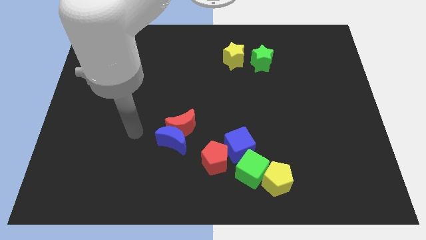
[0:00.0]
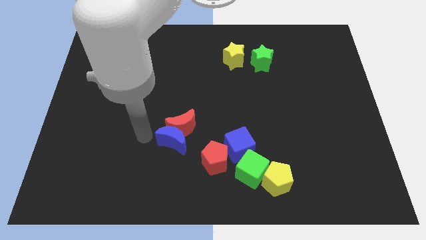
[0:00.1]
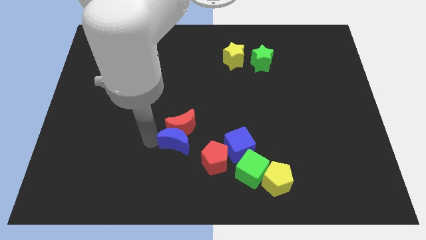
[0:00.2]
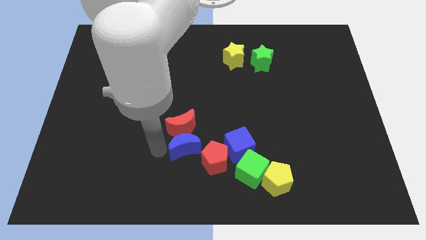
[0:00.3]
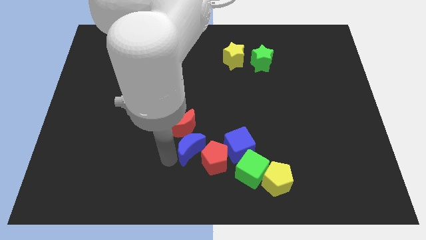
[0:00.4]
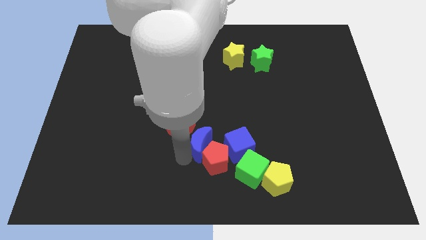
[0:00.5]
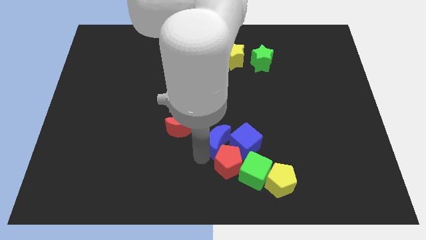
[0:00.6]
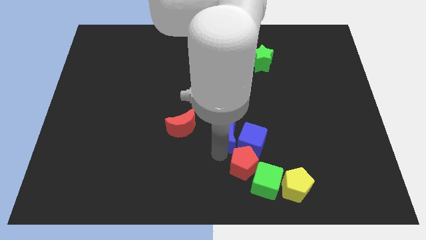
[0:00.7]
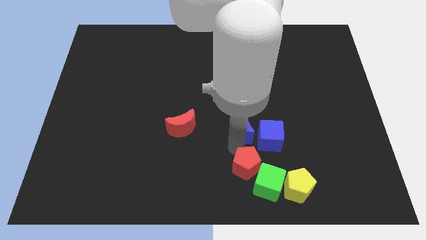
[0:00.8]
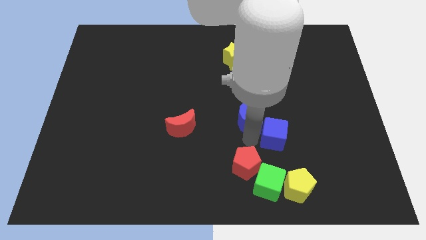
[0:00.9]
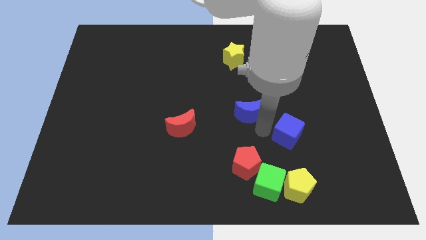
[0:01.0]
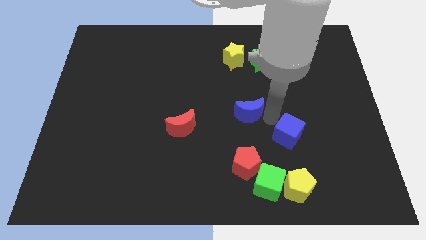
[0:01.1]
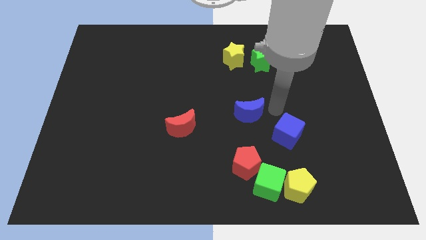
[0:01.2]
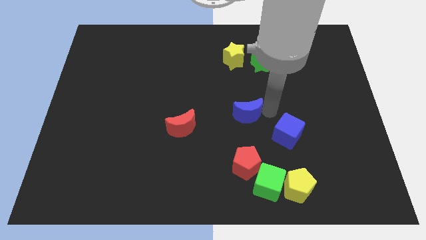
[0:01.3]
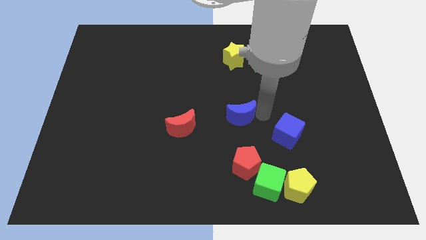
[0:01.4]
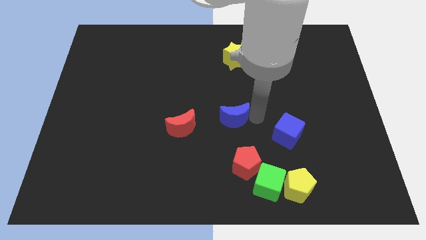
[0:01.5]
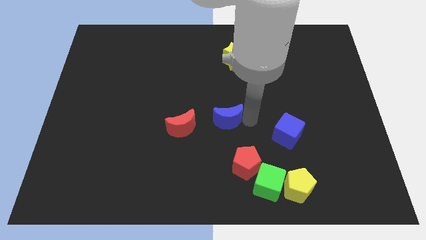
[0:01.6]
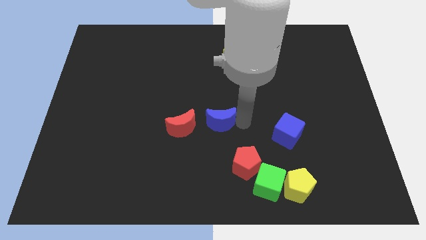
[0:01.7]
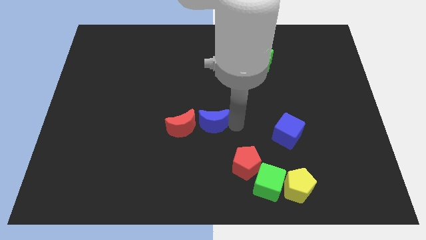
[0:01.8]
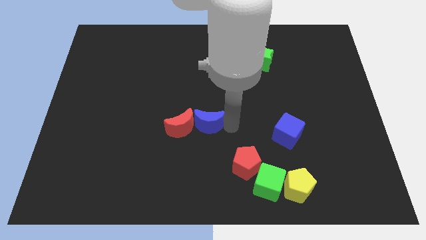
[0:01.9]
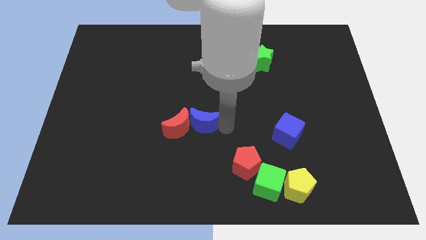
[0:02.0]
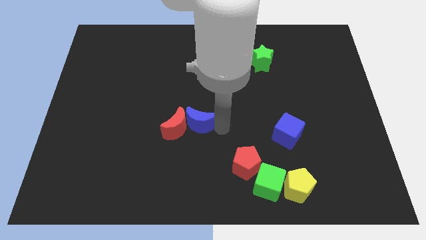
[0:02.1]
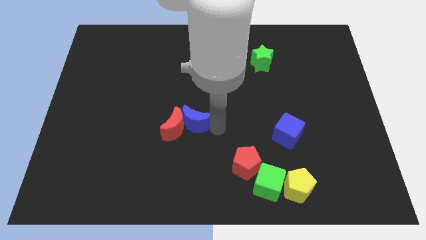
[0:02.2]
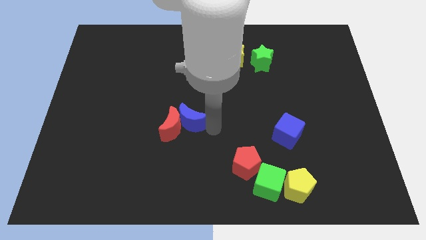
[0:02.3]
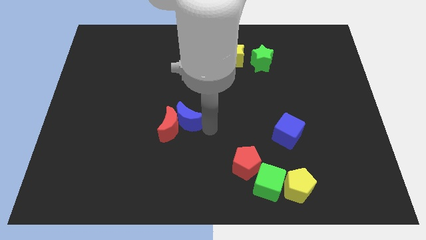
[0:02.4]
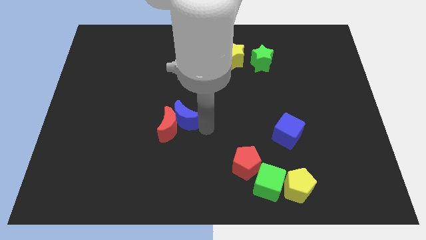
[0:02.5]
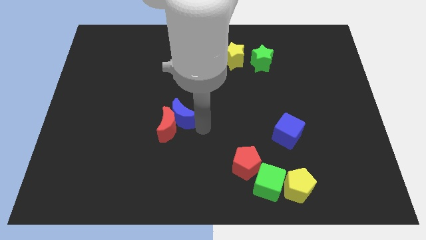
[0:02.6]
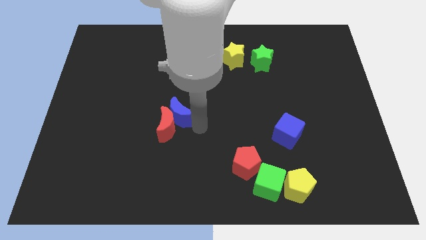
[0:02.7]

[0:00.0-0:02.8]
move the blue moon a little bit up

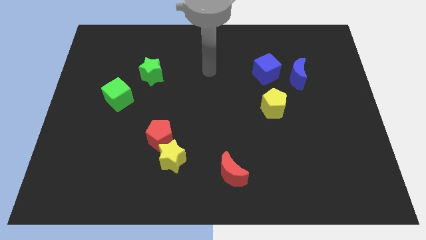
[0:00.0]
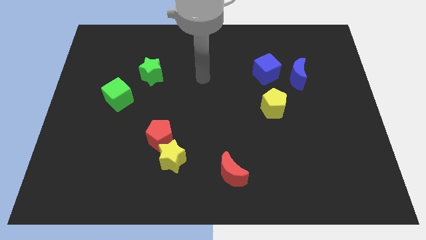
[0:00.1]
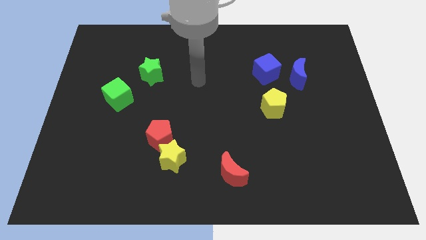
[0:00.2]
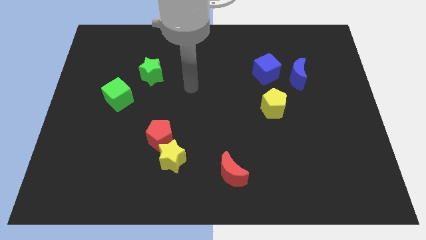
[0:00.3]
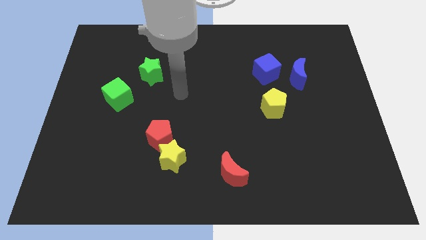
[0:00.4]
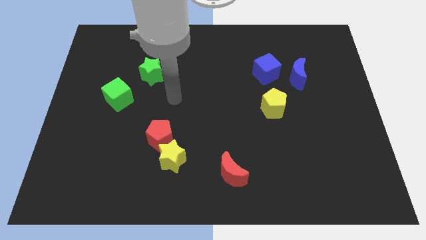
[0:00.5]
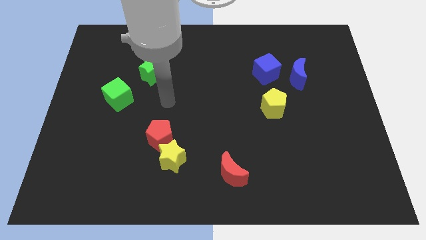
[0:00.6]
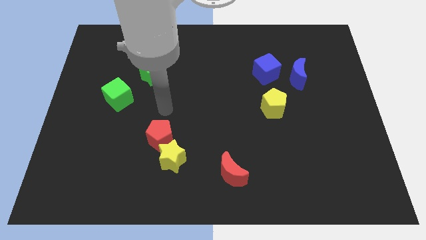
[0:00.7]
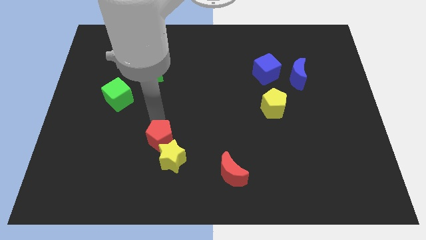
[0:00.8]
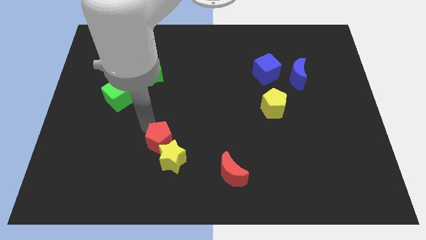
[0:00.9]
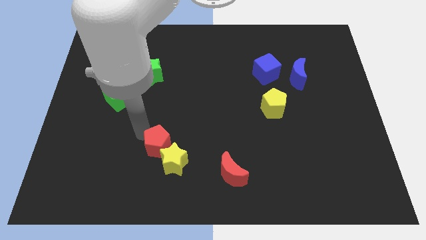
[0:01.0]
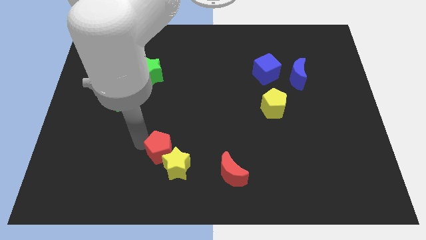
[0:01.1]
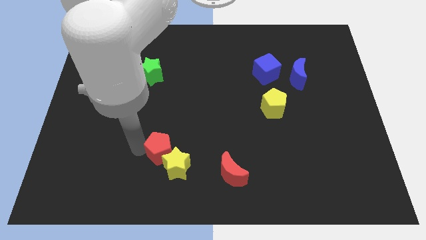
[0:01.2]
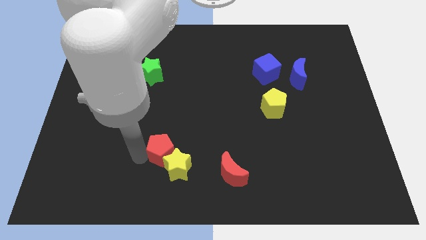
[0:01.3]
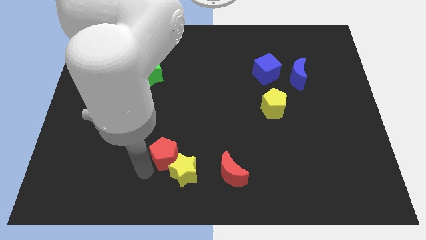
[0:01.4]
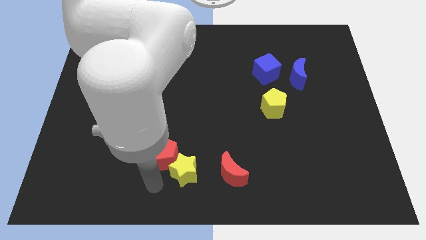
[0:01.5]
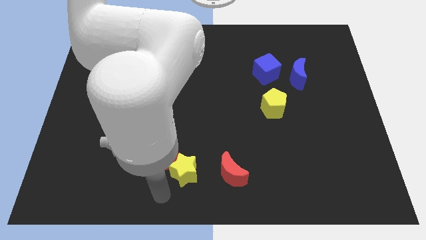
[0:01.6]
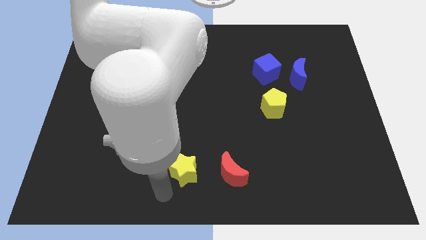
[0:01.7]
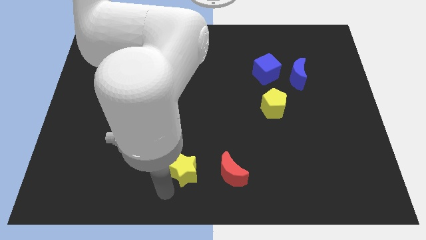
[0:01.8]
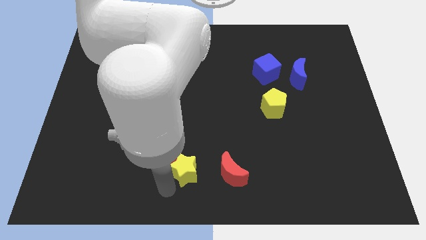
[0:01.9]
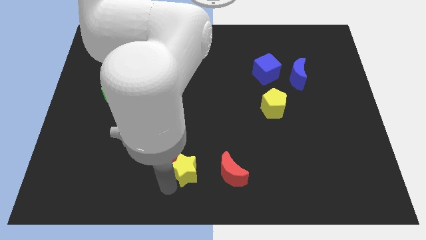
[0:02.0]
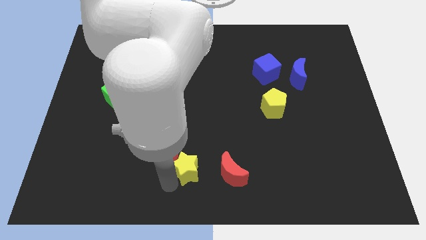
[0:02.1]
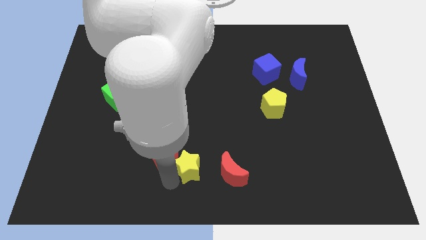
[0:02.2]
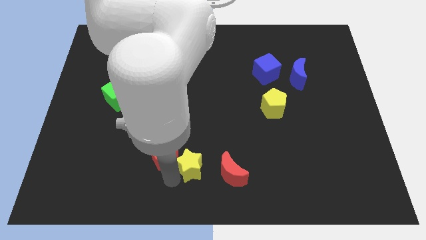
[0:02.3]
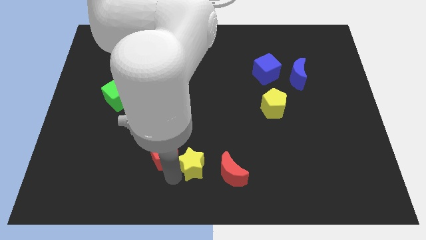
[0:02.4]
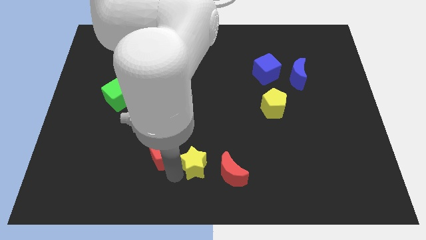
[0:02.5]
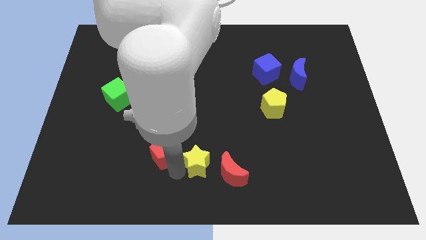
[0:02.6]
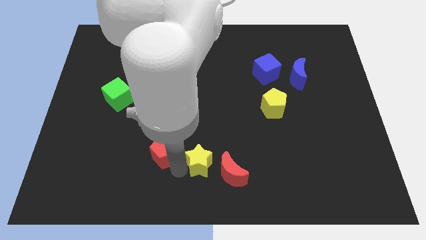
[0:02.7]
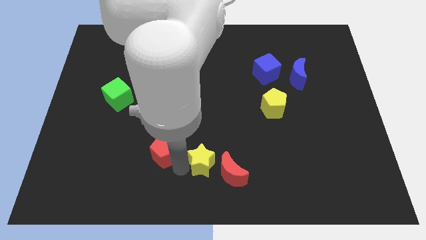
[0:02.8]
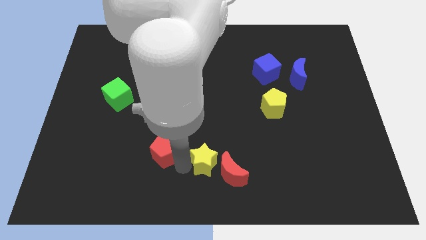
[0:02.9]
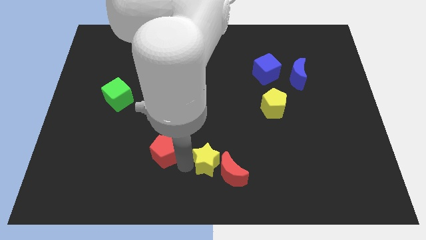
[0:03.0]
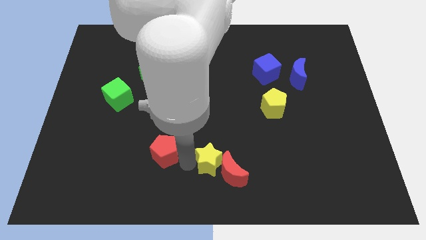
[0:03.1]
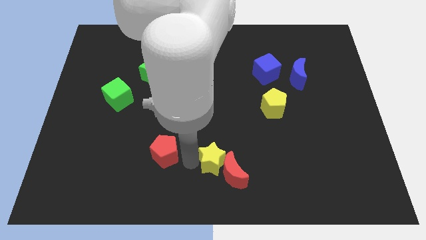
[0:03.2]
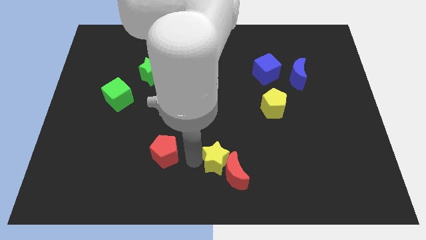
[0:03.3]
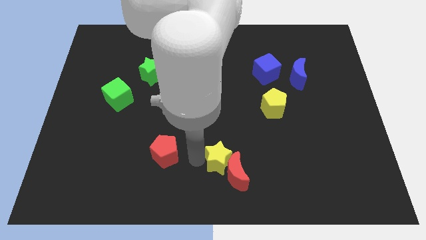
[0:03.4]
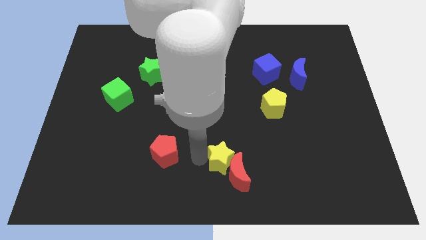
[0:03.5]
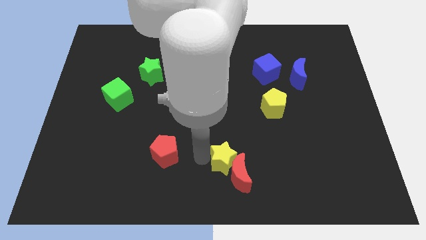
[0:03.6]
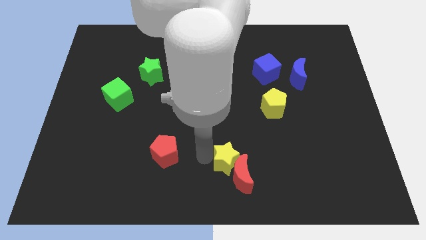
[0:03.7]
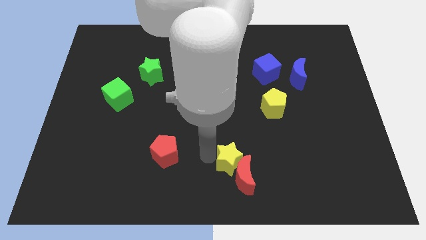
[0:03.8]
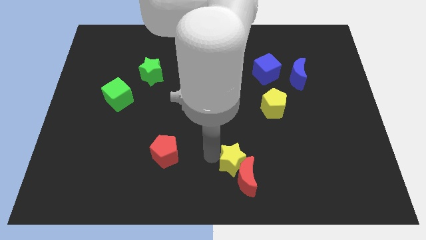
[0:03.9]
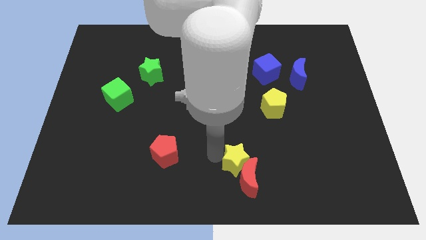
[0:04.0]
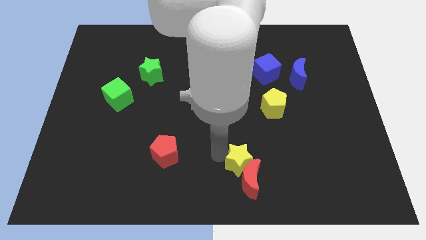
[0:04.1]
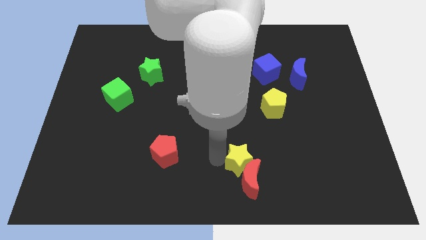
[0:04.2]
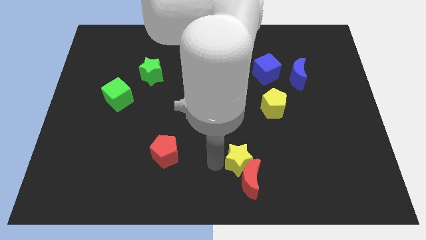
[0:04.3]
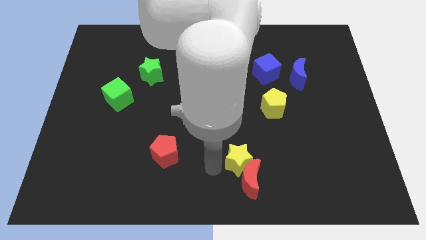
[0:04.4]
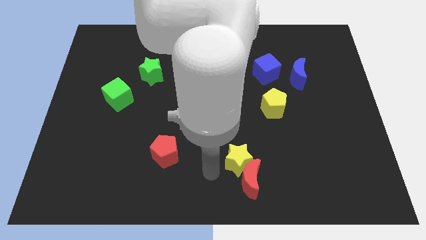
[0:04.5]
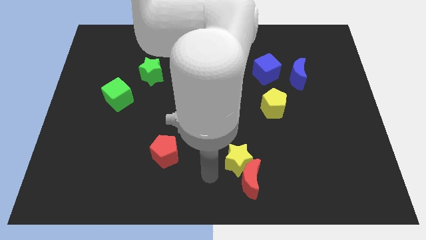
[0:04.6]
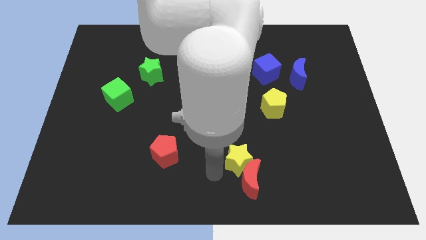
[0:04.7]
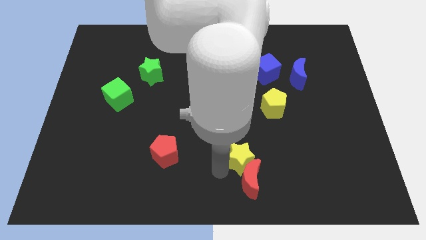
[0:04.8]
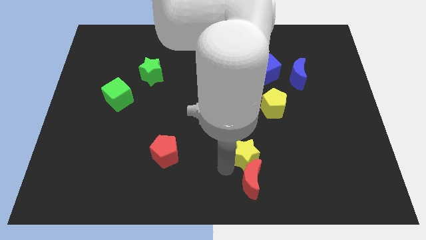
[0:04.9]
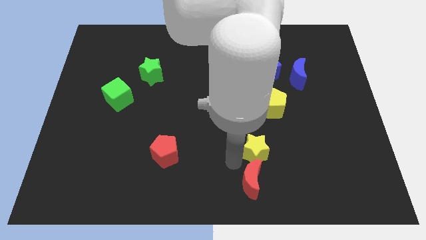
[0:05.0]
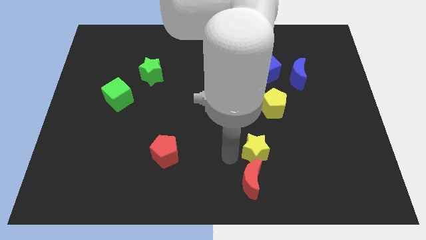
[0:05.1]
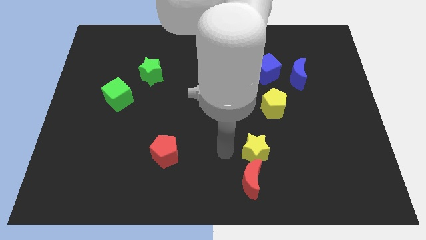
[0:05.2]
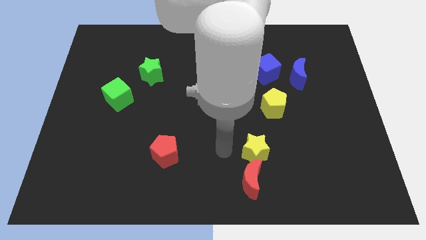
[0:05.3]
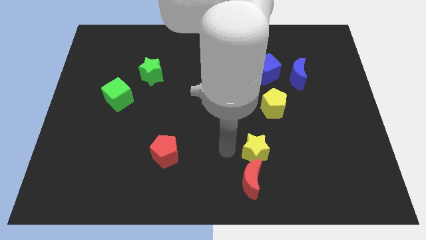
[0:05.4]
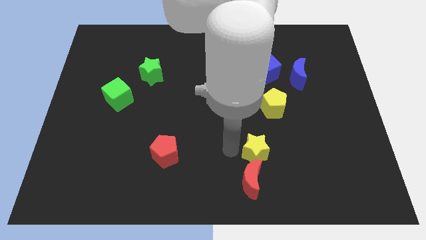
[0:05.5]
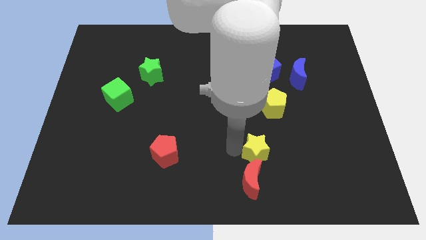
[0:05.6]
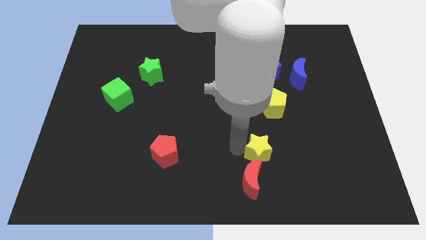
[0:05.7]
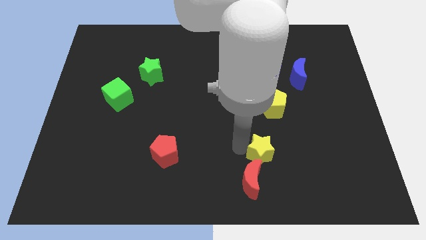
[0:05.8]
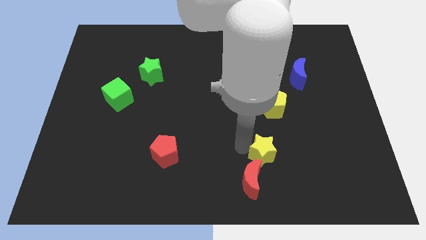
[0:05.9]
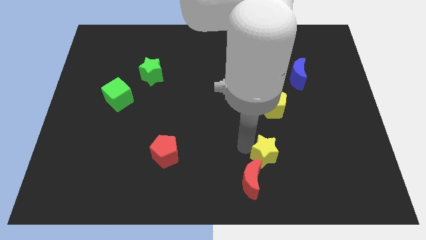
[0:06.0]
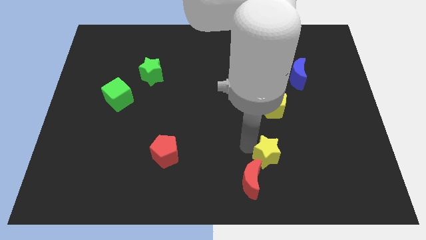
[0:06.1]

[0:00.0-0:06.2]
move the yellow star to the right
